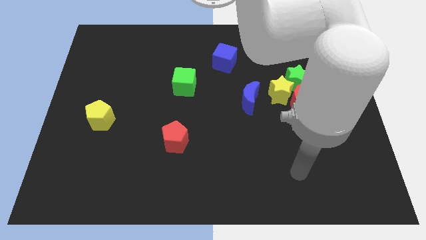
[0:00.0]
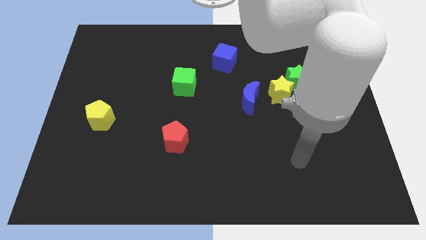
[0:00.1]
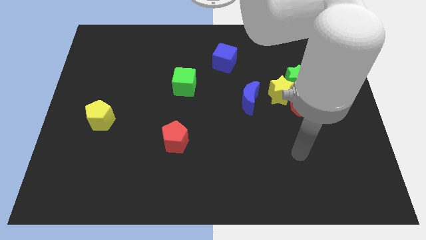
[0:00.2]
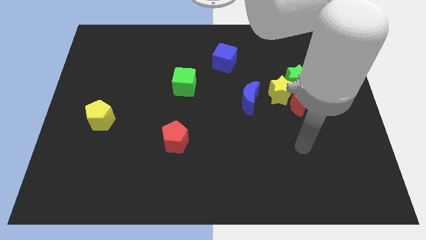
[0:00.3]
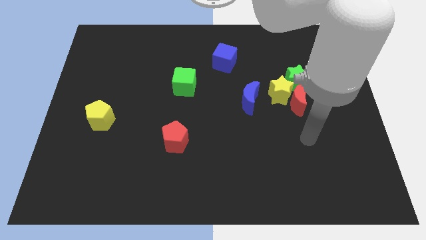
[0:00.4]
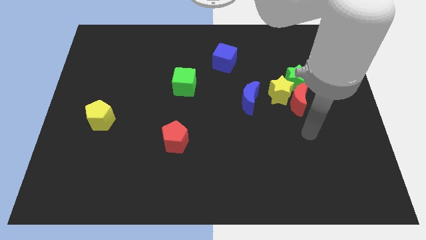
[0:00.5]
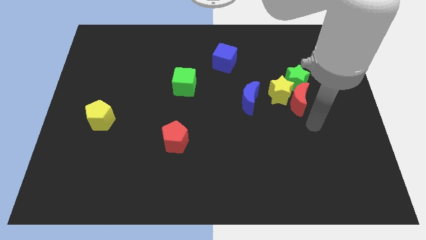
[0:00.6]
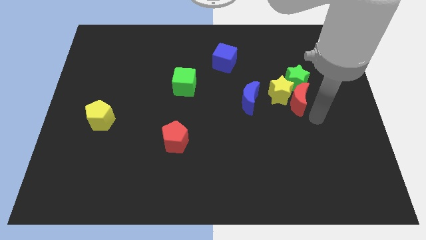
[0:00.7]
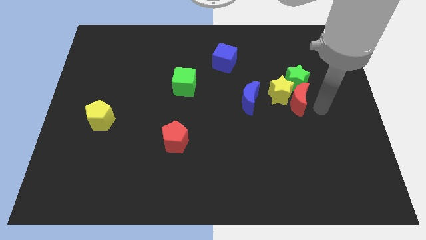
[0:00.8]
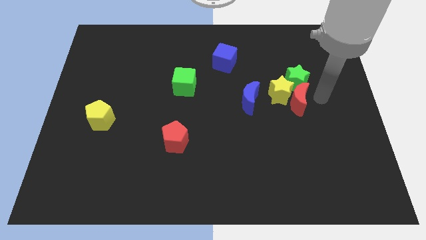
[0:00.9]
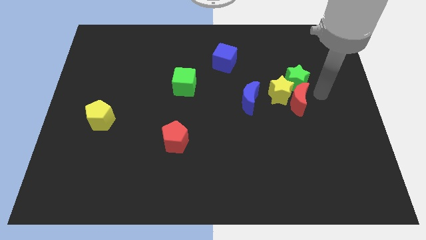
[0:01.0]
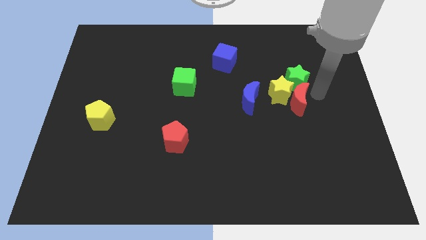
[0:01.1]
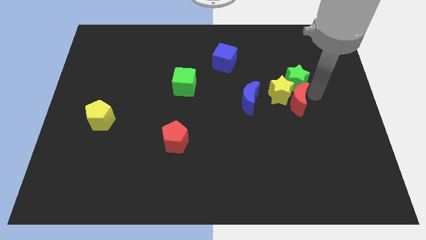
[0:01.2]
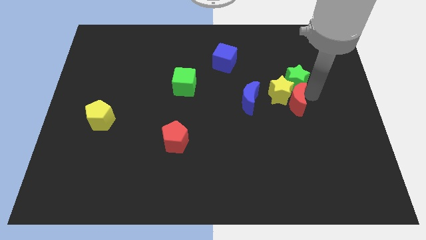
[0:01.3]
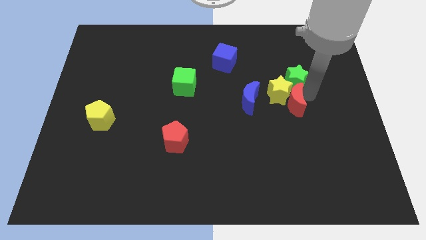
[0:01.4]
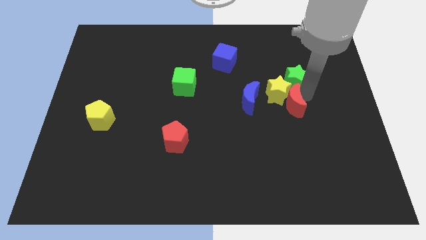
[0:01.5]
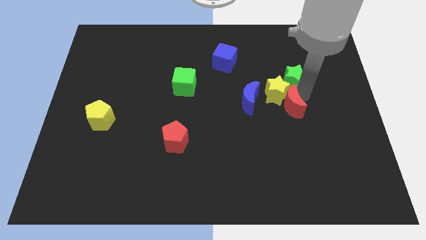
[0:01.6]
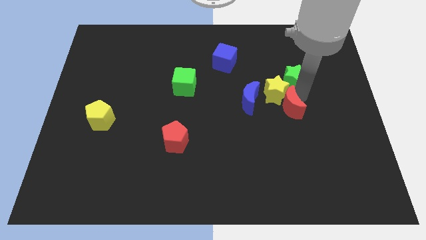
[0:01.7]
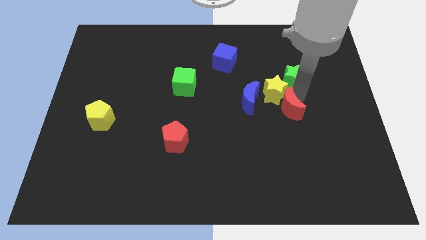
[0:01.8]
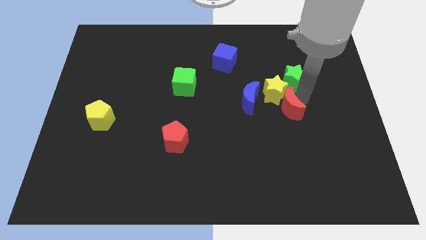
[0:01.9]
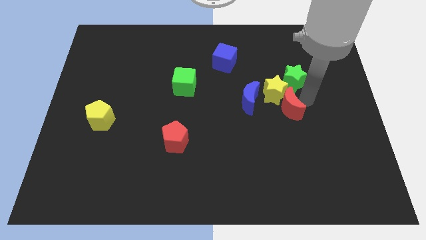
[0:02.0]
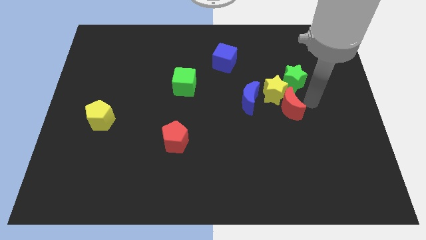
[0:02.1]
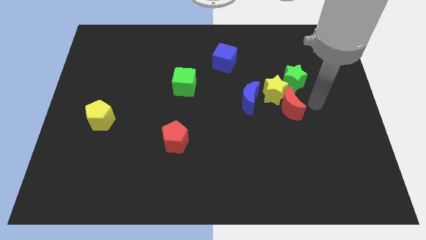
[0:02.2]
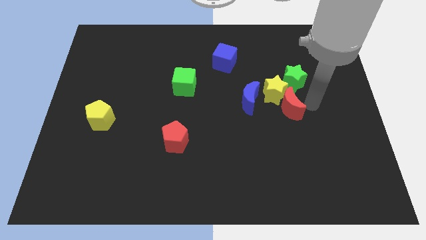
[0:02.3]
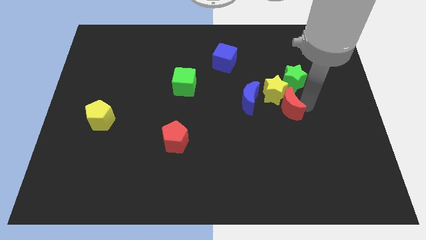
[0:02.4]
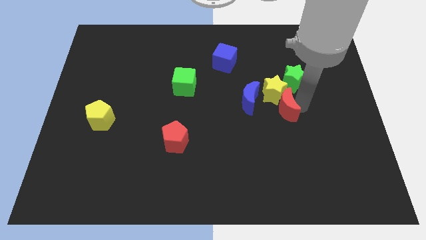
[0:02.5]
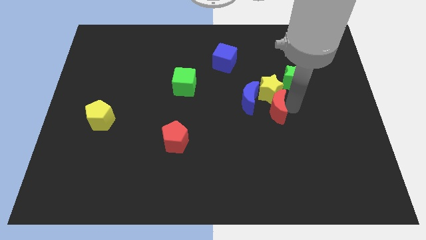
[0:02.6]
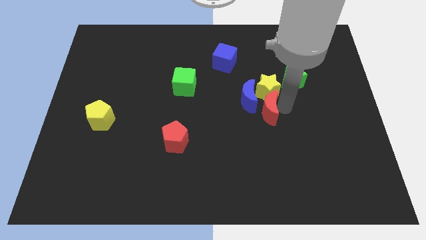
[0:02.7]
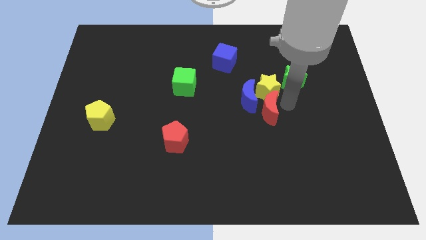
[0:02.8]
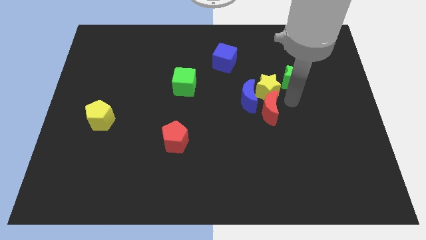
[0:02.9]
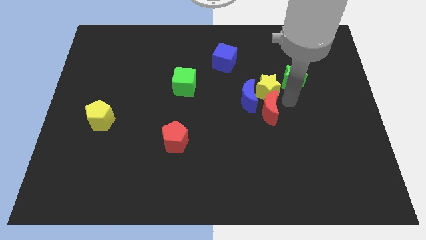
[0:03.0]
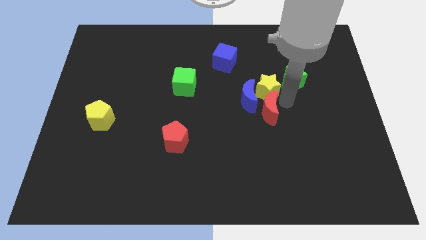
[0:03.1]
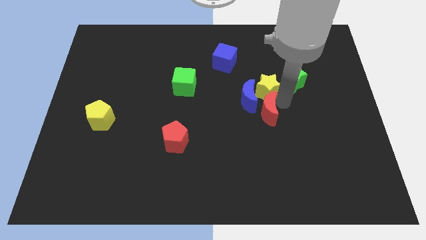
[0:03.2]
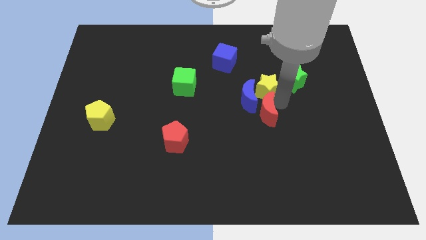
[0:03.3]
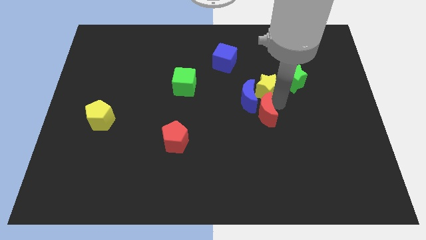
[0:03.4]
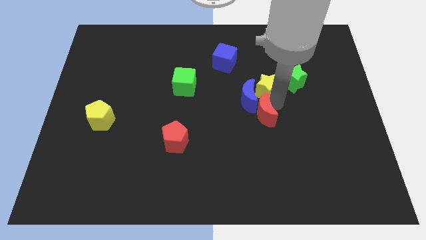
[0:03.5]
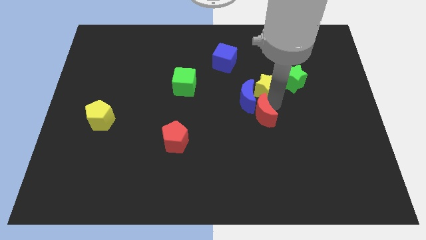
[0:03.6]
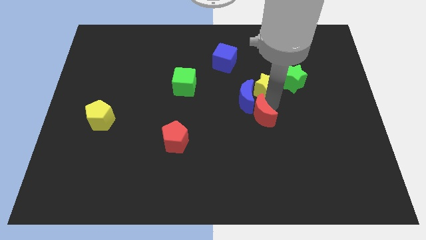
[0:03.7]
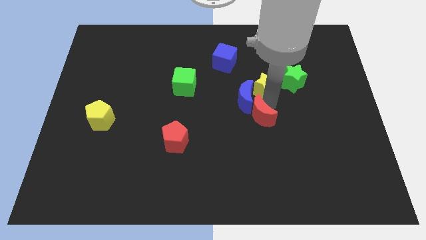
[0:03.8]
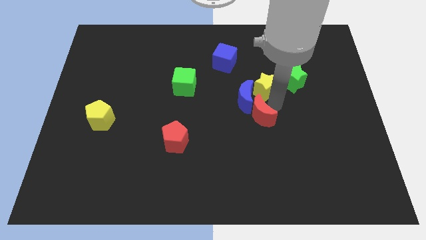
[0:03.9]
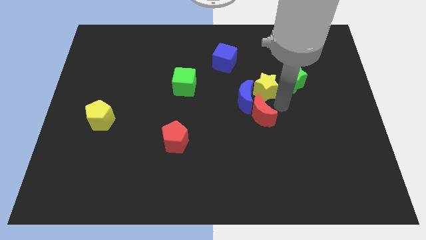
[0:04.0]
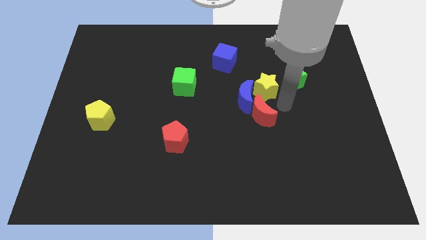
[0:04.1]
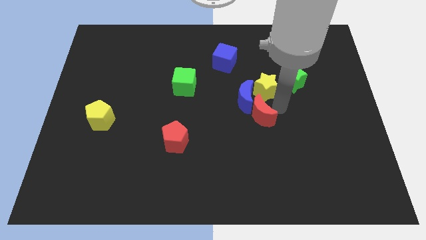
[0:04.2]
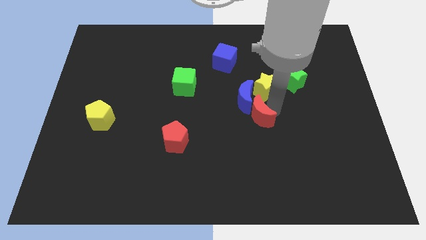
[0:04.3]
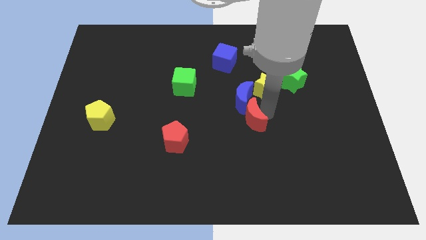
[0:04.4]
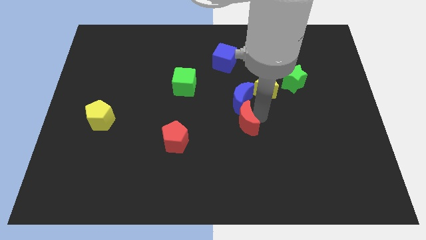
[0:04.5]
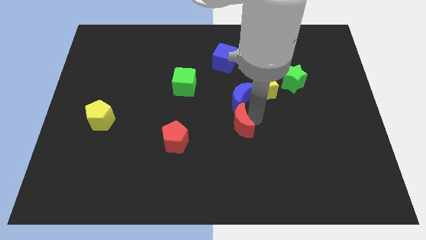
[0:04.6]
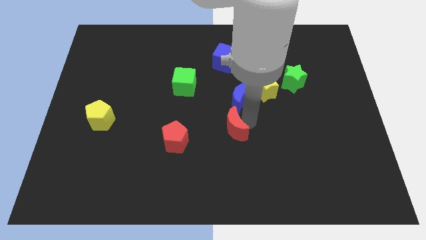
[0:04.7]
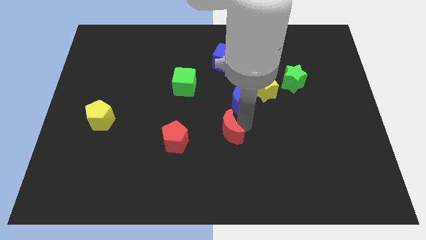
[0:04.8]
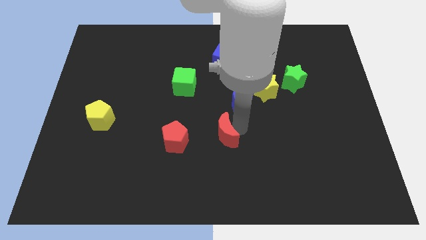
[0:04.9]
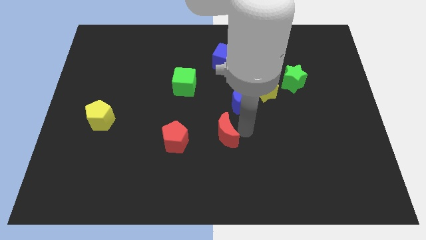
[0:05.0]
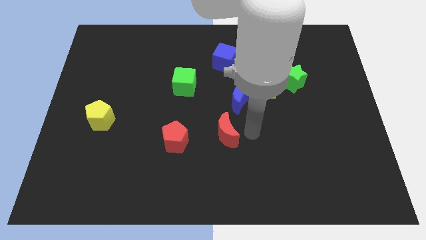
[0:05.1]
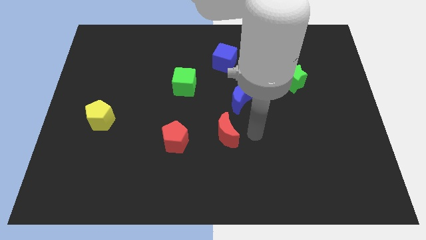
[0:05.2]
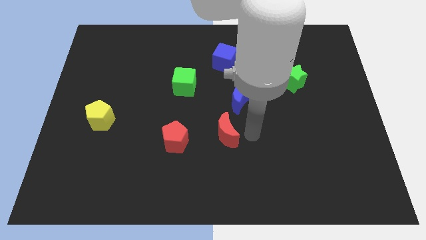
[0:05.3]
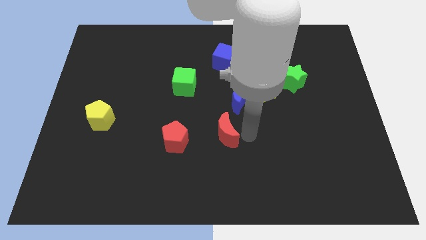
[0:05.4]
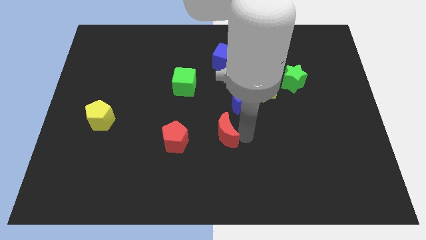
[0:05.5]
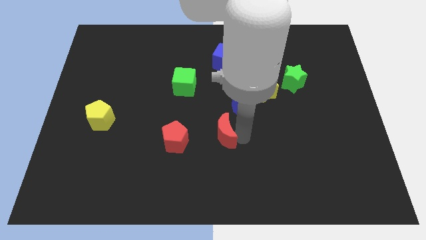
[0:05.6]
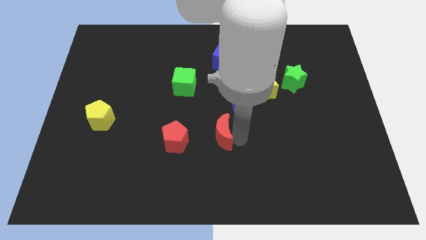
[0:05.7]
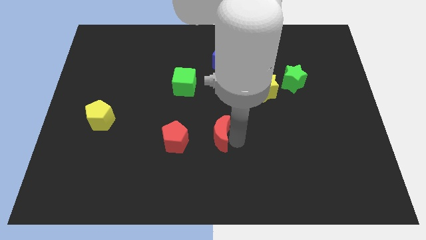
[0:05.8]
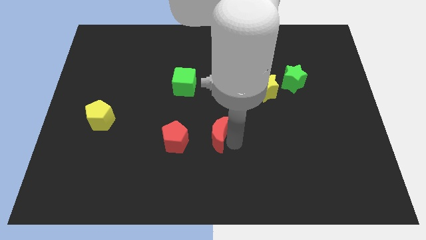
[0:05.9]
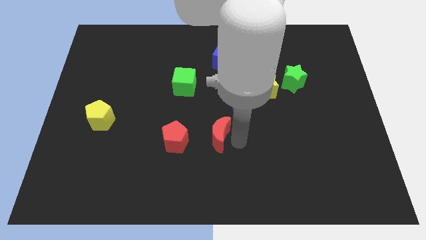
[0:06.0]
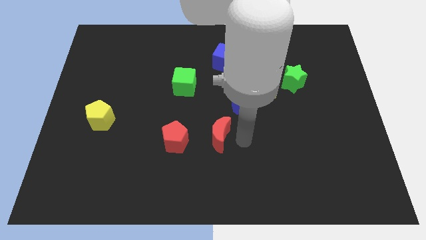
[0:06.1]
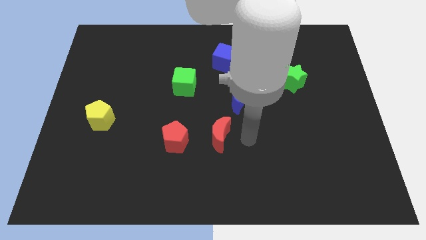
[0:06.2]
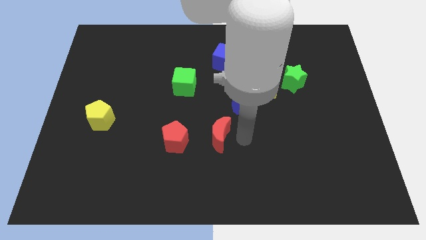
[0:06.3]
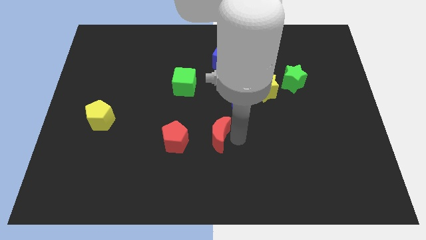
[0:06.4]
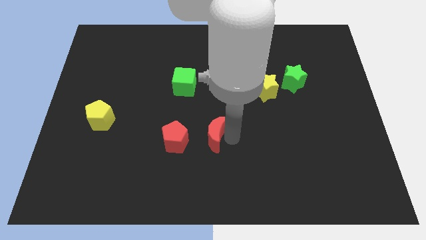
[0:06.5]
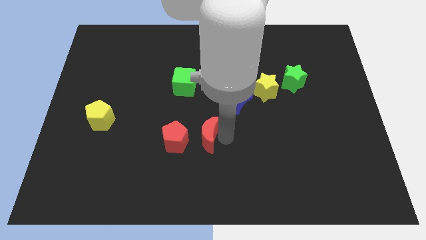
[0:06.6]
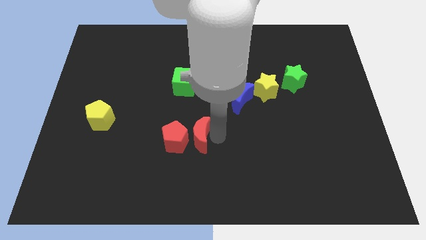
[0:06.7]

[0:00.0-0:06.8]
push the red moon to the red pentagon
